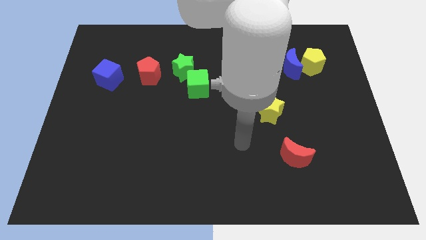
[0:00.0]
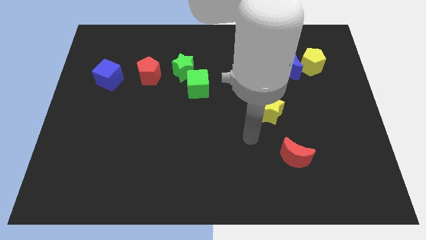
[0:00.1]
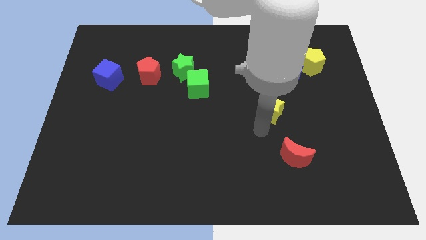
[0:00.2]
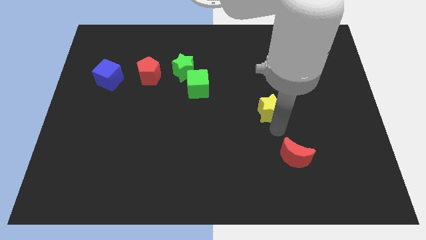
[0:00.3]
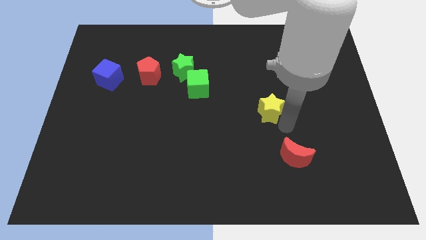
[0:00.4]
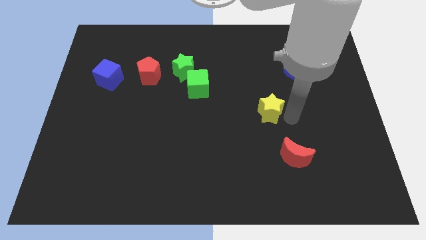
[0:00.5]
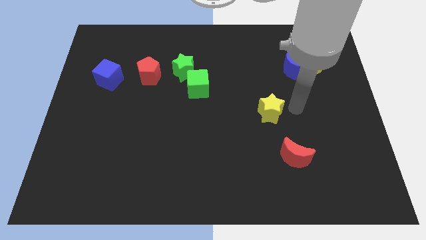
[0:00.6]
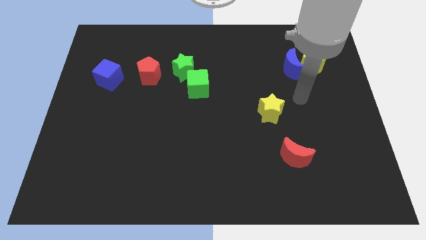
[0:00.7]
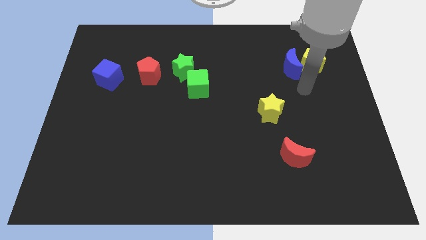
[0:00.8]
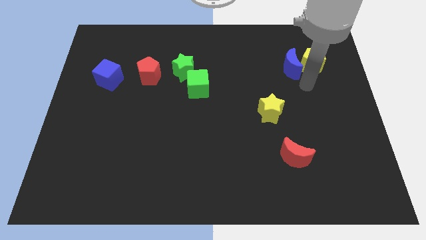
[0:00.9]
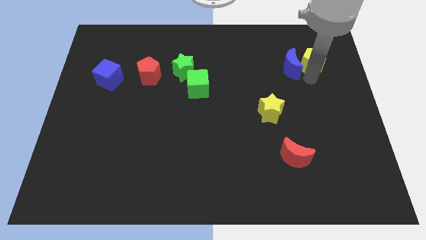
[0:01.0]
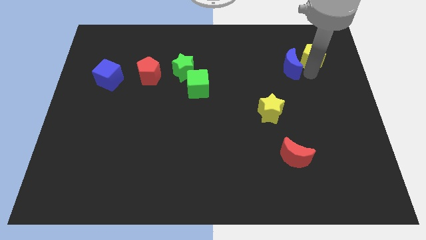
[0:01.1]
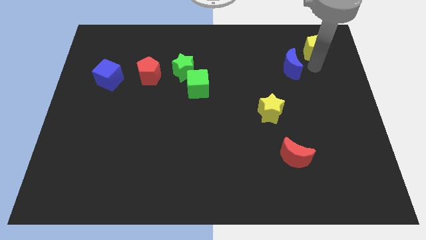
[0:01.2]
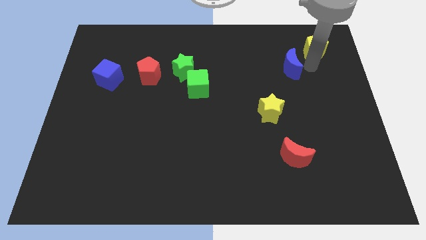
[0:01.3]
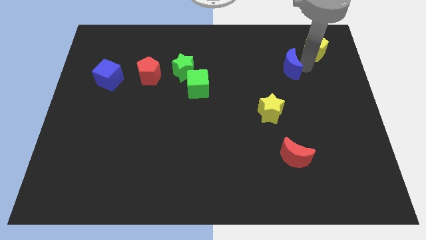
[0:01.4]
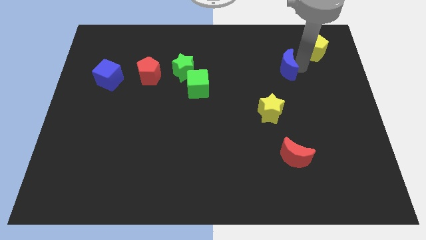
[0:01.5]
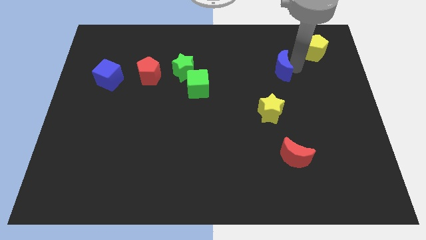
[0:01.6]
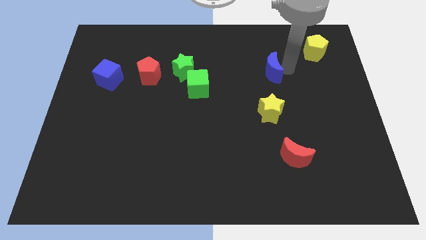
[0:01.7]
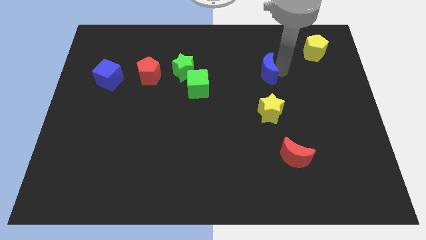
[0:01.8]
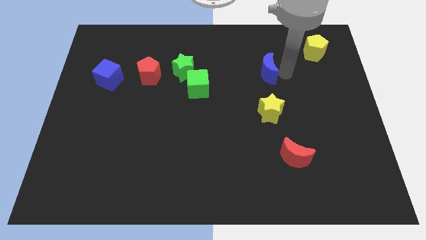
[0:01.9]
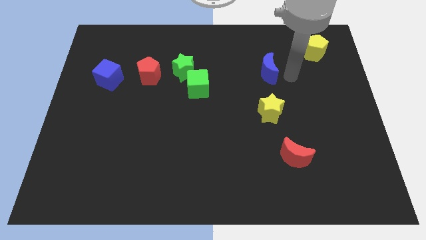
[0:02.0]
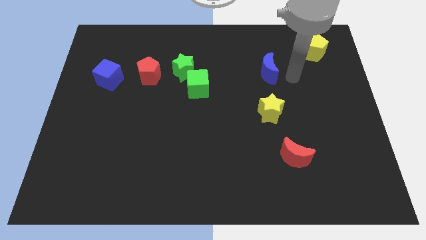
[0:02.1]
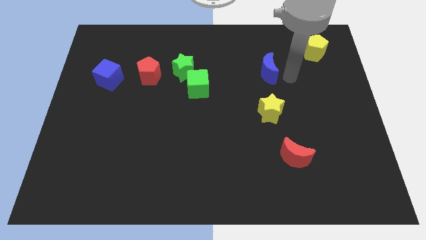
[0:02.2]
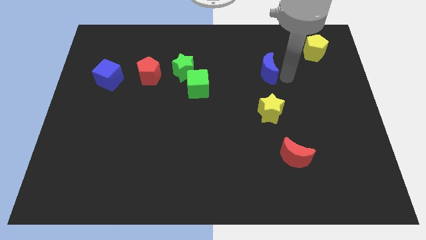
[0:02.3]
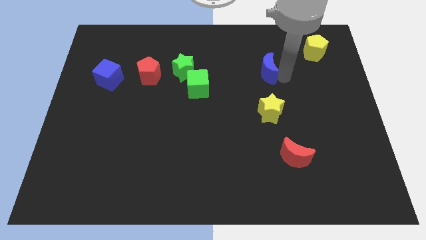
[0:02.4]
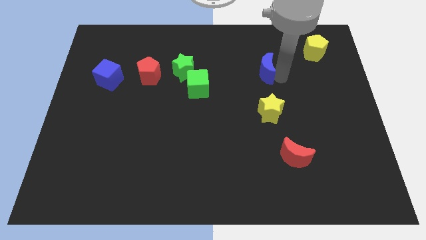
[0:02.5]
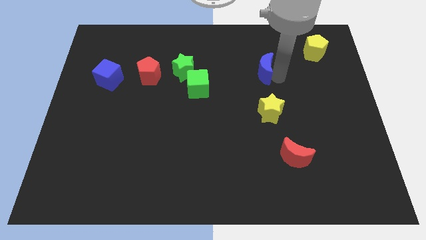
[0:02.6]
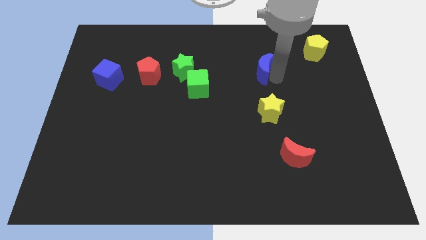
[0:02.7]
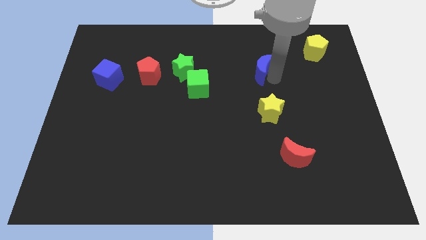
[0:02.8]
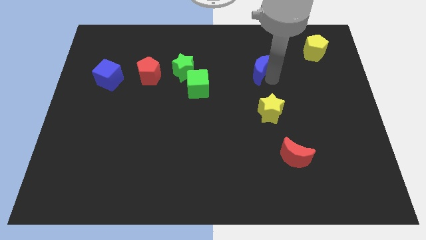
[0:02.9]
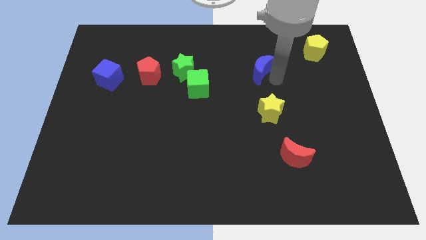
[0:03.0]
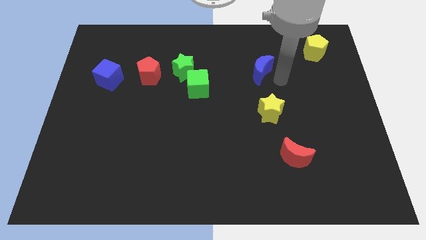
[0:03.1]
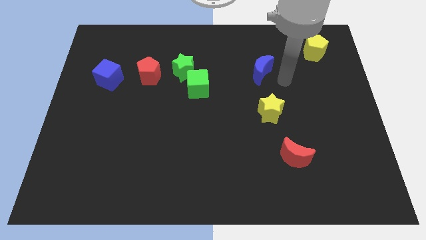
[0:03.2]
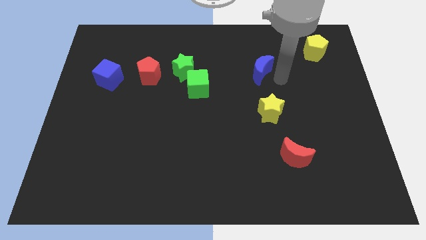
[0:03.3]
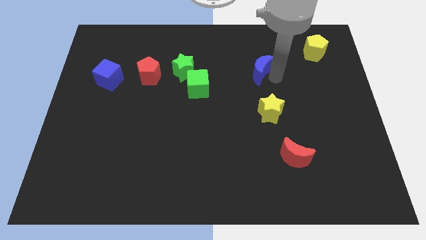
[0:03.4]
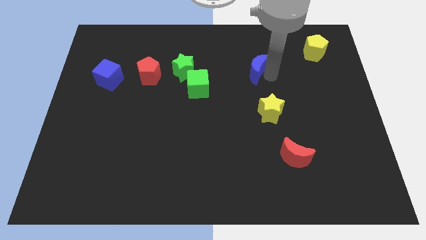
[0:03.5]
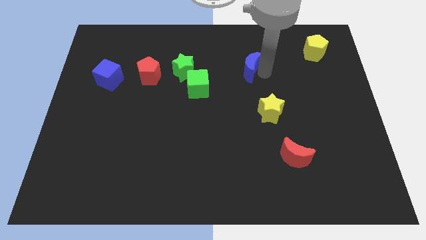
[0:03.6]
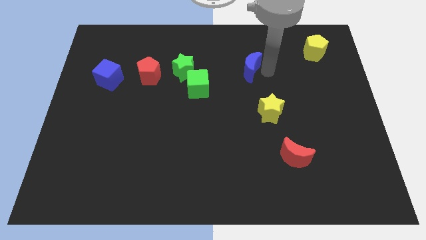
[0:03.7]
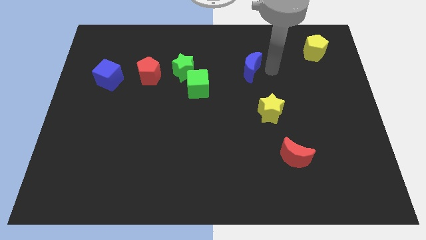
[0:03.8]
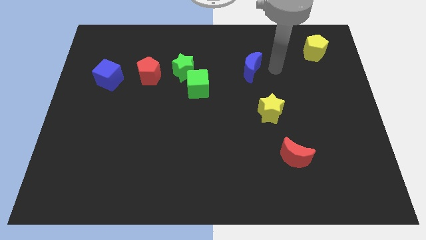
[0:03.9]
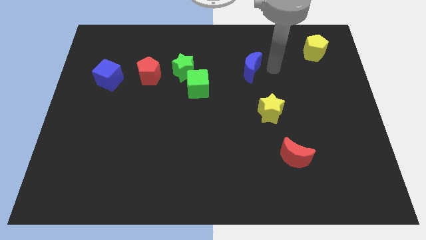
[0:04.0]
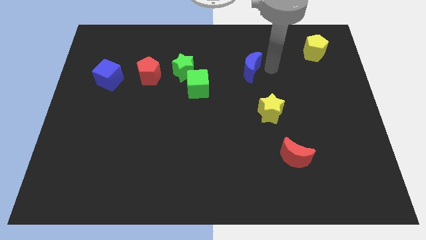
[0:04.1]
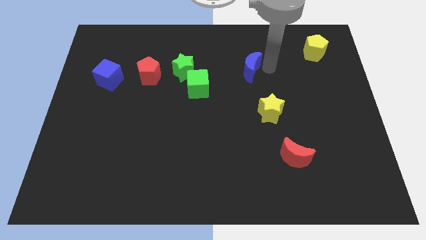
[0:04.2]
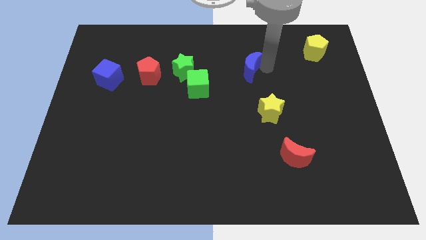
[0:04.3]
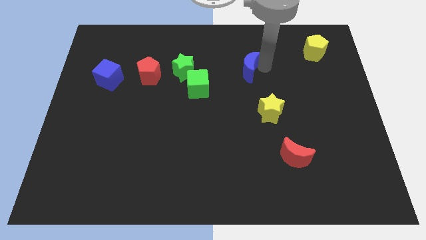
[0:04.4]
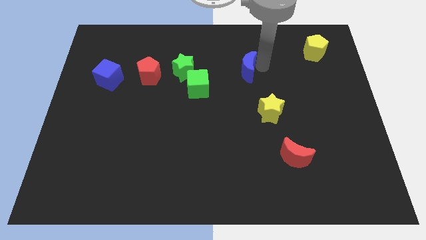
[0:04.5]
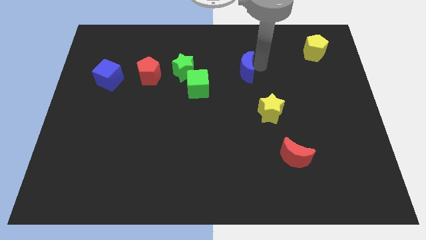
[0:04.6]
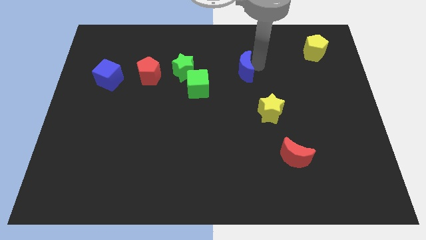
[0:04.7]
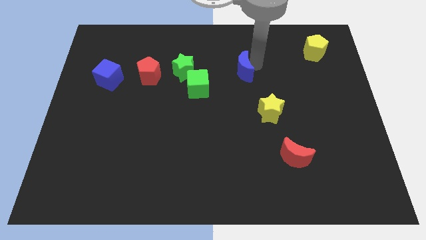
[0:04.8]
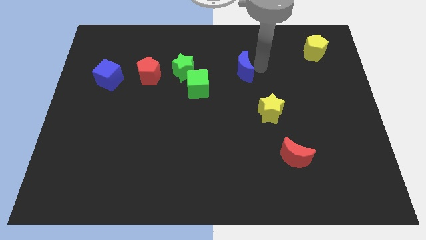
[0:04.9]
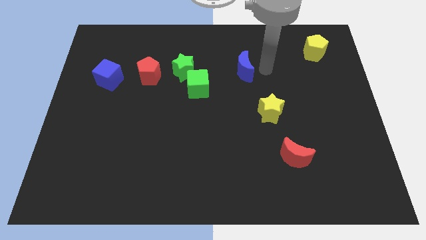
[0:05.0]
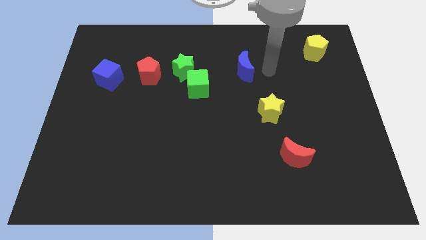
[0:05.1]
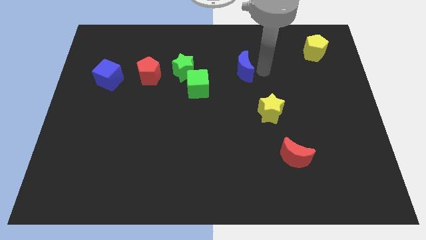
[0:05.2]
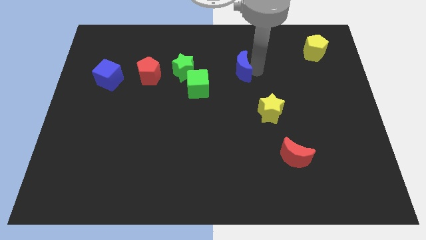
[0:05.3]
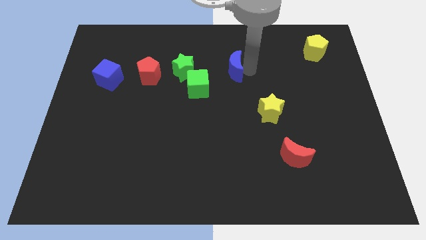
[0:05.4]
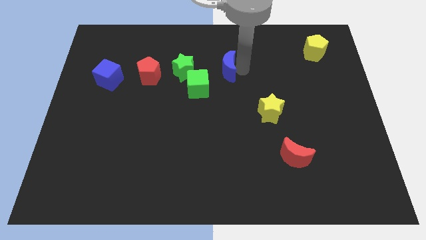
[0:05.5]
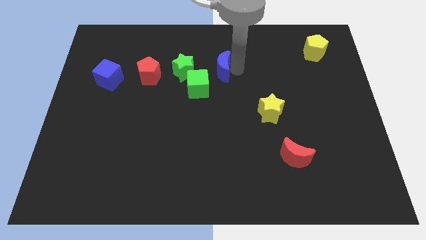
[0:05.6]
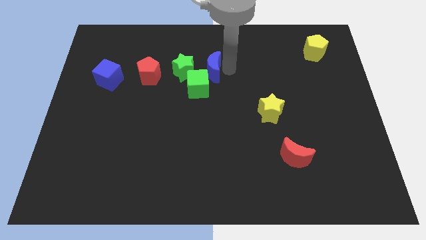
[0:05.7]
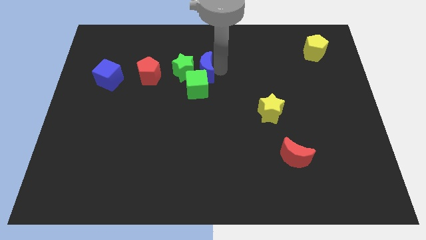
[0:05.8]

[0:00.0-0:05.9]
move the blue moon towards the green star

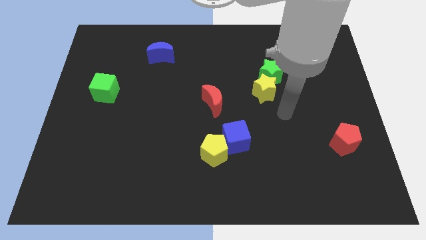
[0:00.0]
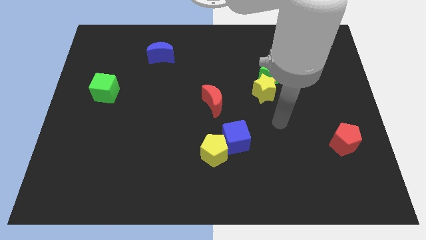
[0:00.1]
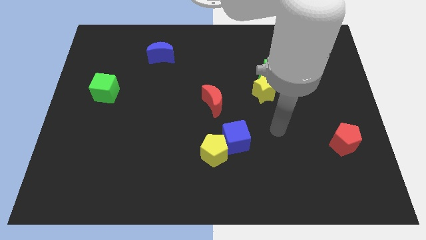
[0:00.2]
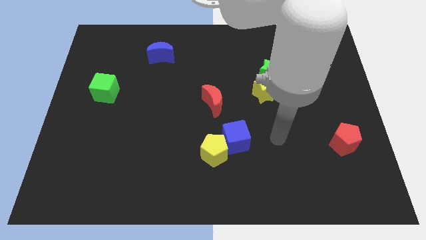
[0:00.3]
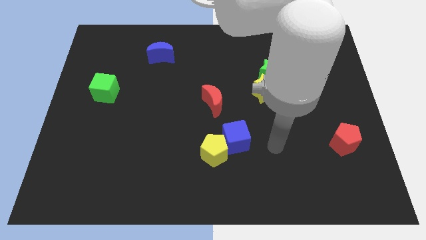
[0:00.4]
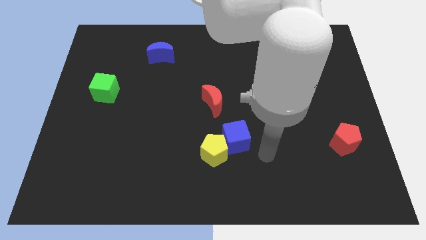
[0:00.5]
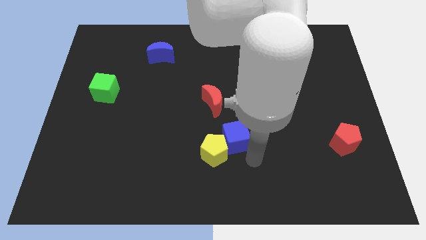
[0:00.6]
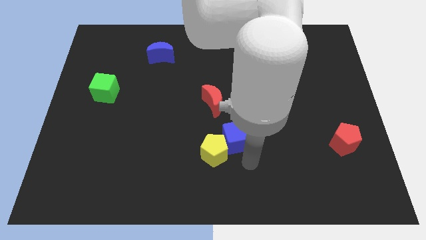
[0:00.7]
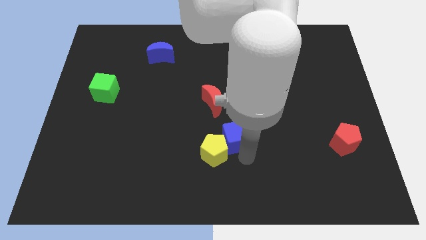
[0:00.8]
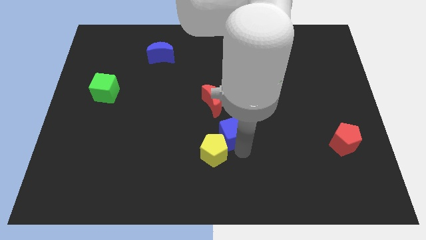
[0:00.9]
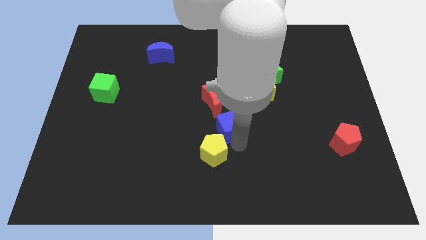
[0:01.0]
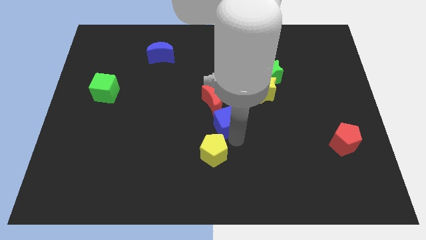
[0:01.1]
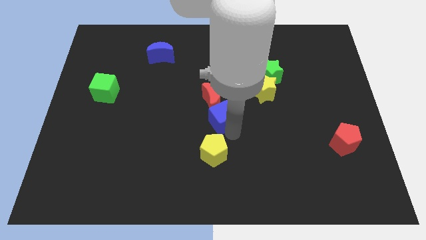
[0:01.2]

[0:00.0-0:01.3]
put the blue cube to the red moon
